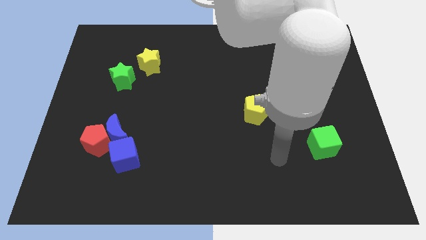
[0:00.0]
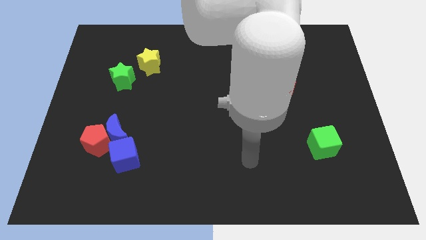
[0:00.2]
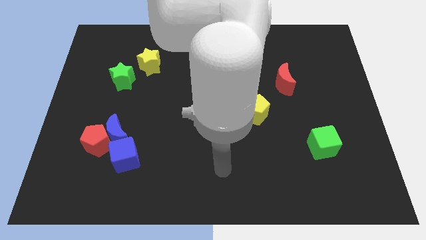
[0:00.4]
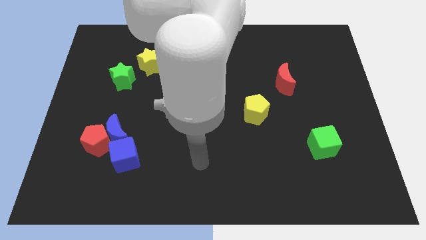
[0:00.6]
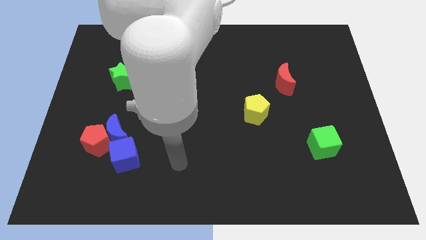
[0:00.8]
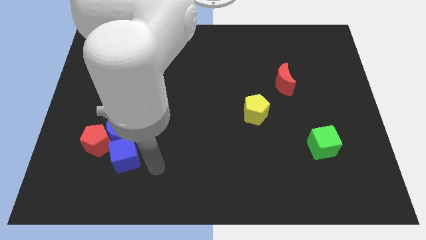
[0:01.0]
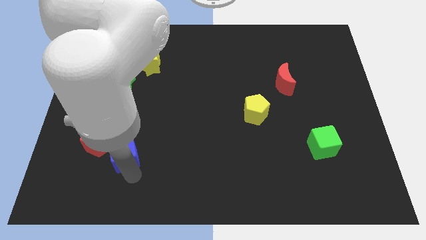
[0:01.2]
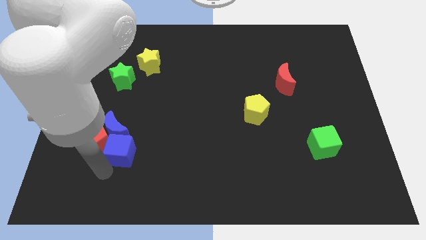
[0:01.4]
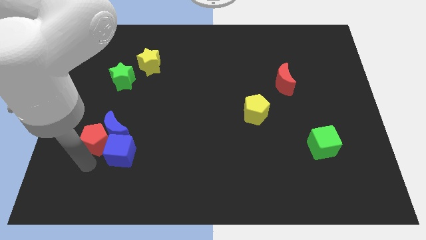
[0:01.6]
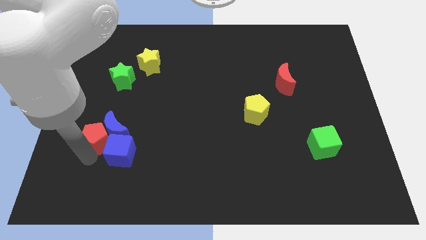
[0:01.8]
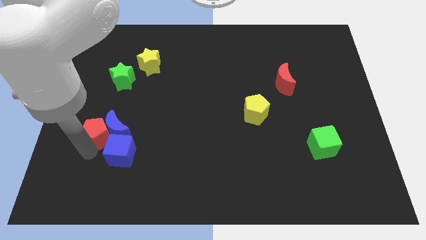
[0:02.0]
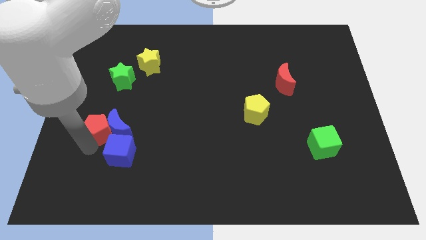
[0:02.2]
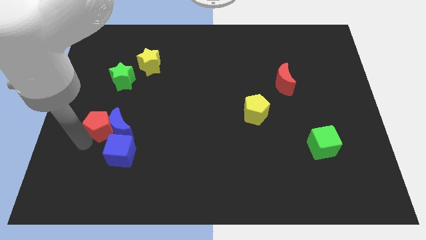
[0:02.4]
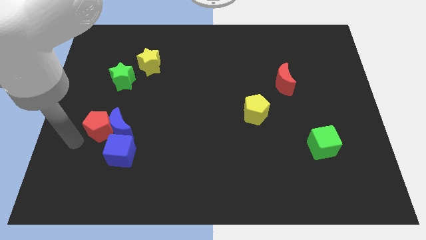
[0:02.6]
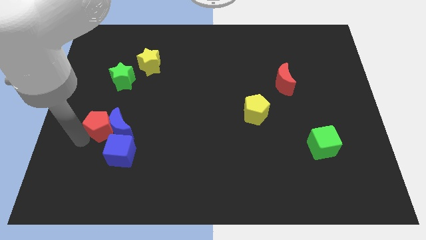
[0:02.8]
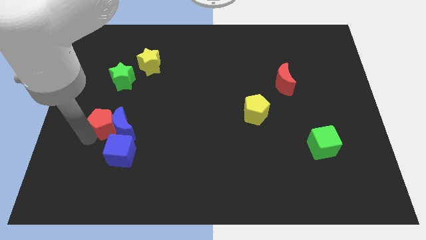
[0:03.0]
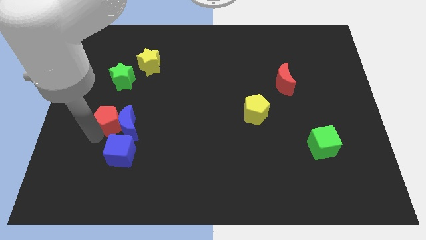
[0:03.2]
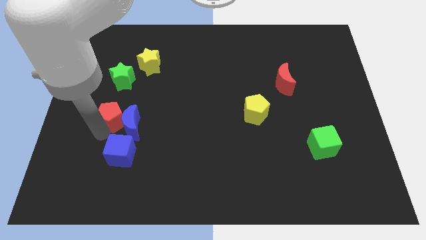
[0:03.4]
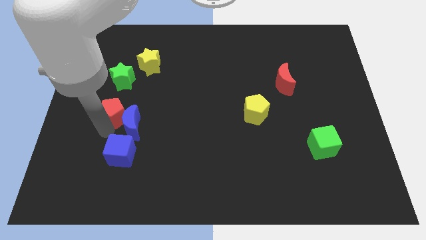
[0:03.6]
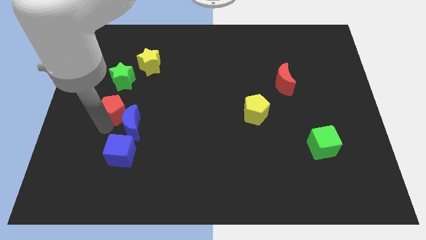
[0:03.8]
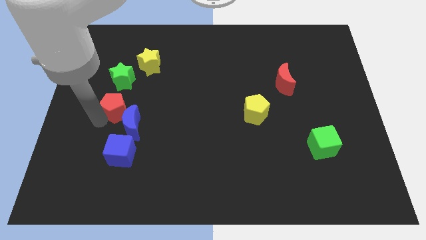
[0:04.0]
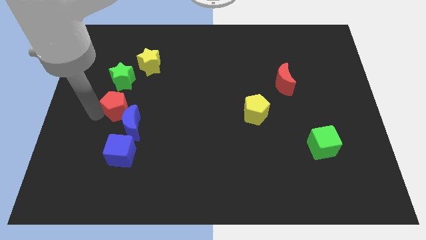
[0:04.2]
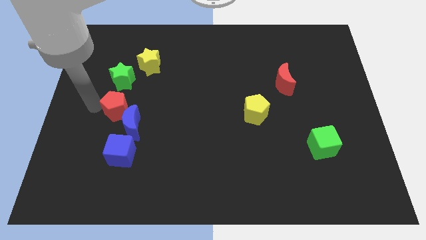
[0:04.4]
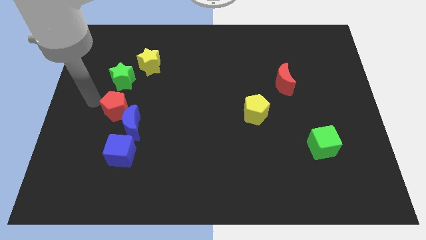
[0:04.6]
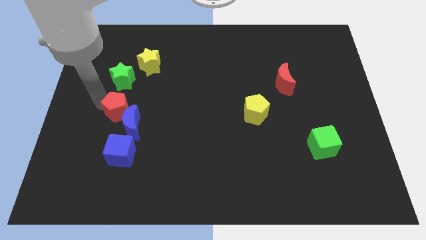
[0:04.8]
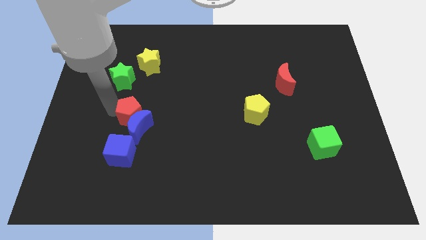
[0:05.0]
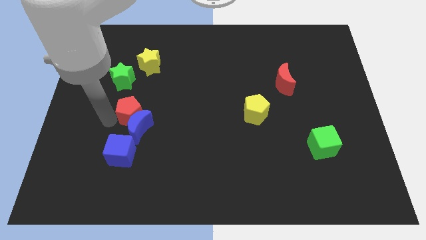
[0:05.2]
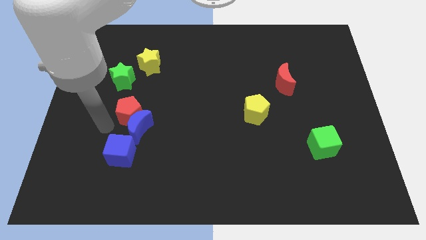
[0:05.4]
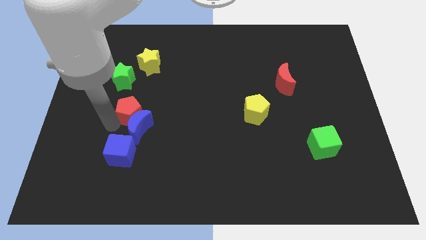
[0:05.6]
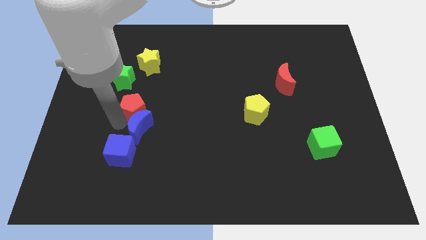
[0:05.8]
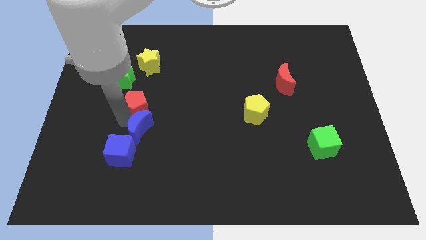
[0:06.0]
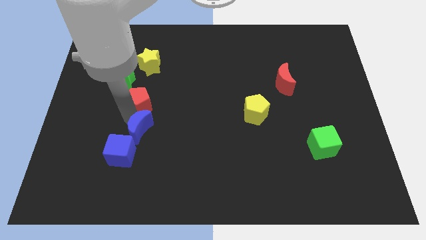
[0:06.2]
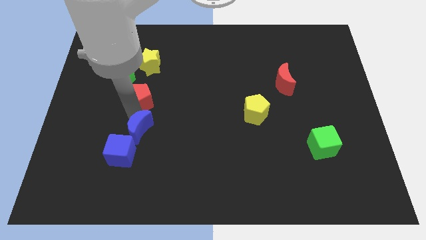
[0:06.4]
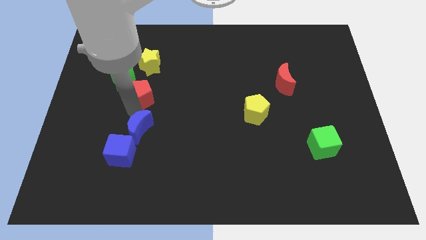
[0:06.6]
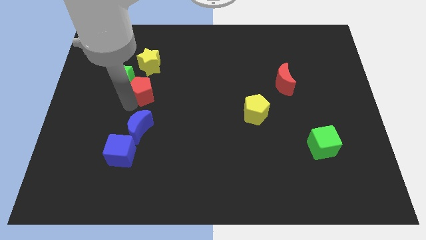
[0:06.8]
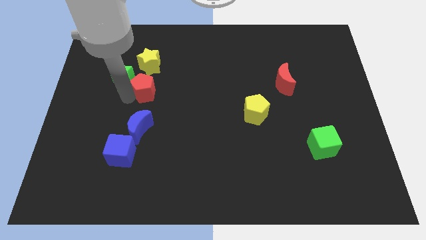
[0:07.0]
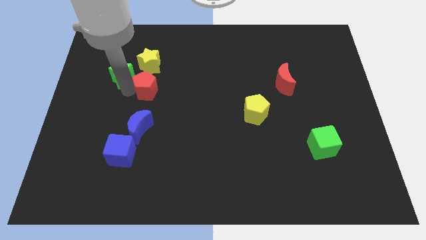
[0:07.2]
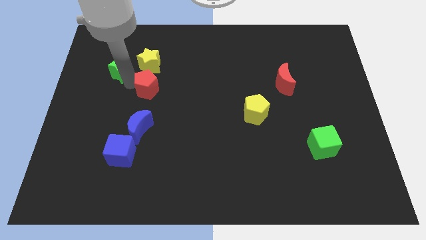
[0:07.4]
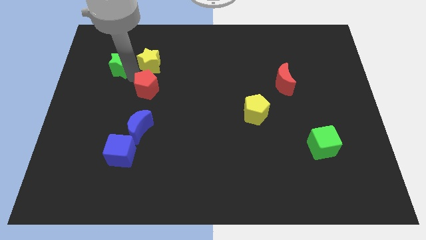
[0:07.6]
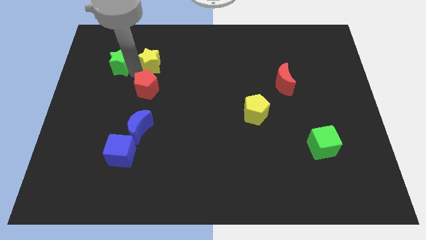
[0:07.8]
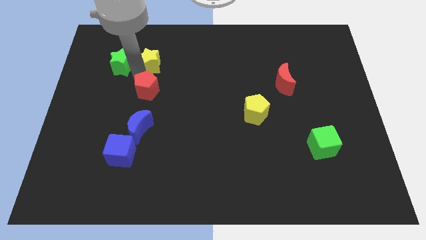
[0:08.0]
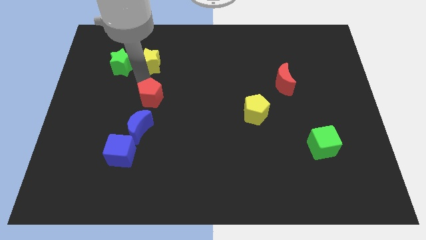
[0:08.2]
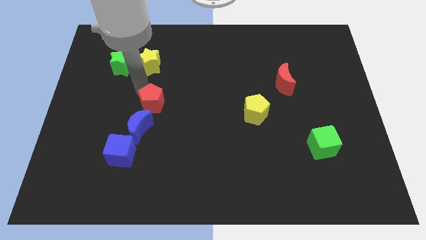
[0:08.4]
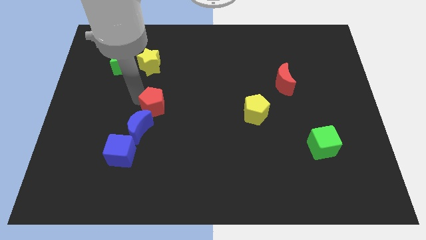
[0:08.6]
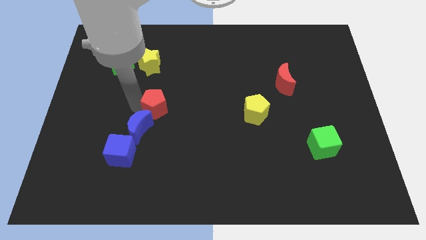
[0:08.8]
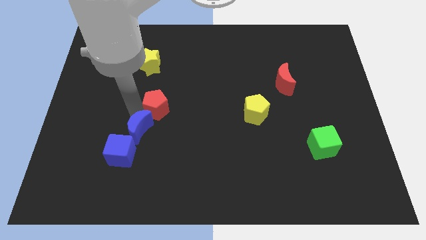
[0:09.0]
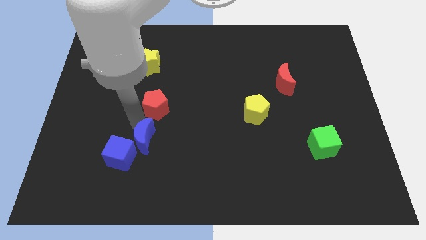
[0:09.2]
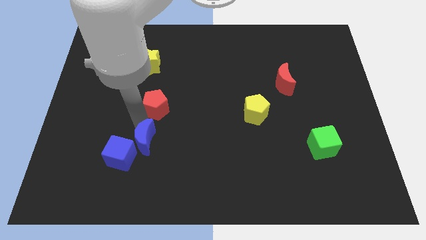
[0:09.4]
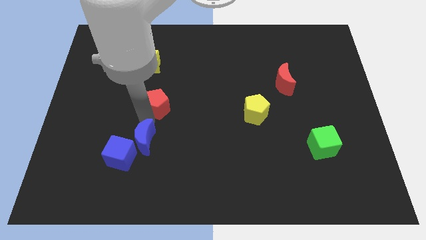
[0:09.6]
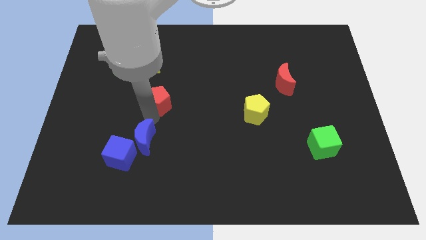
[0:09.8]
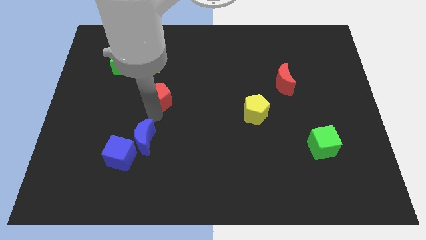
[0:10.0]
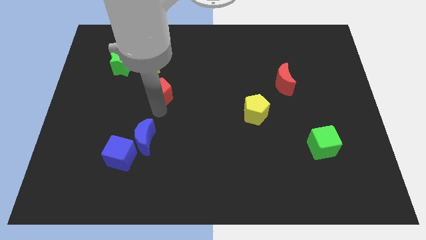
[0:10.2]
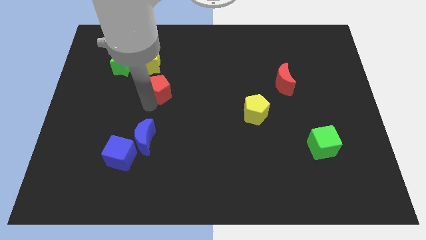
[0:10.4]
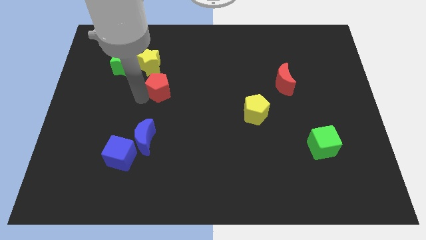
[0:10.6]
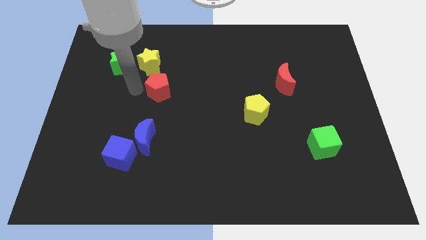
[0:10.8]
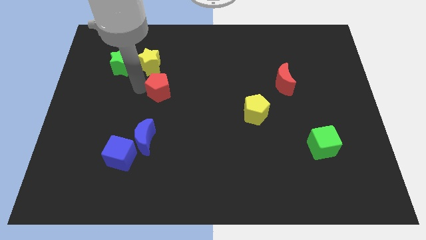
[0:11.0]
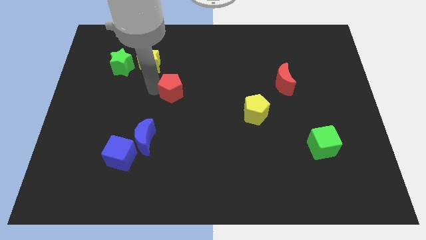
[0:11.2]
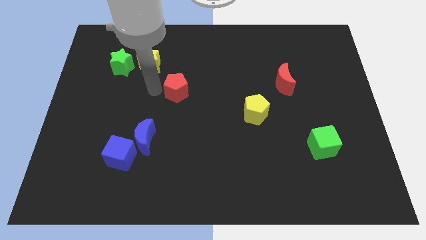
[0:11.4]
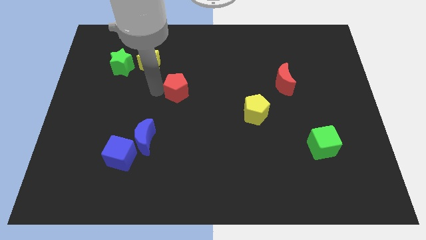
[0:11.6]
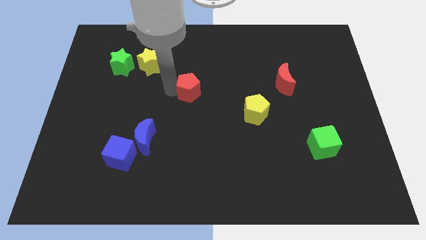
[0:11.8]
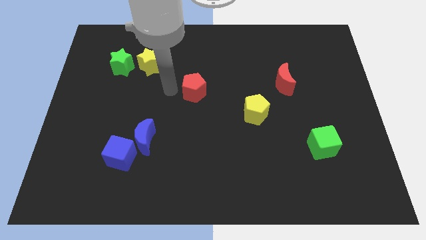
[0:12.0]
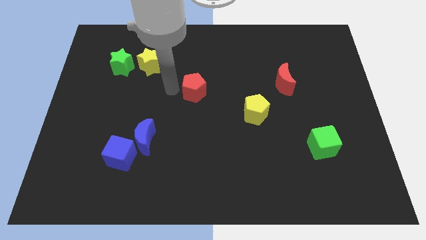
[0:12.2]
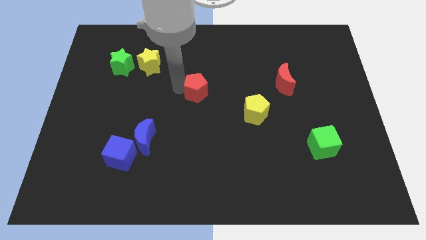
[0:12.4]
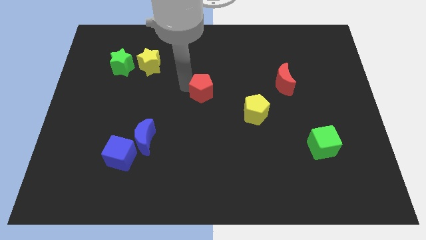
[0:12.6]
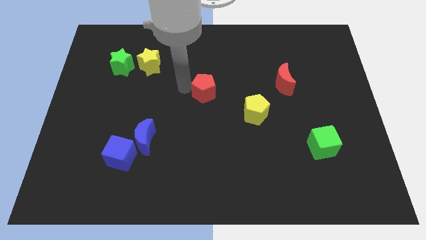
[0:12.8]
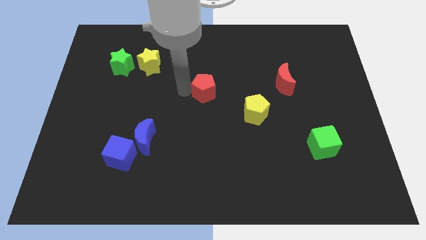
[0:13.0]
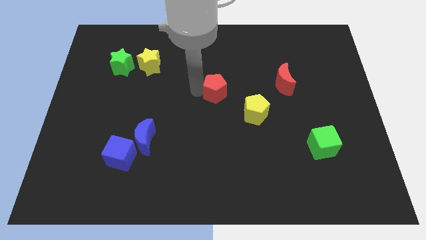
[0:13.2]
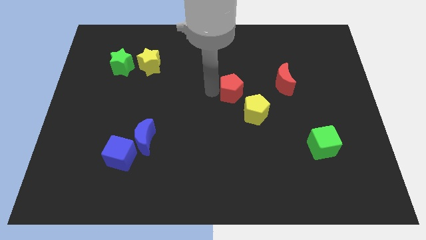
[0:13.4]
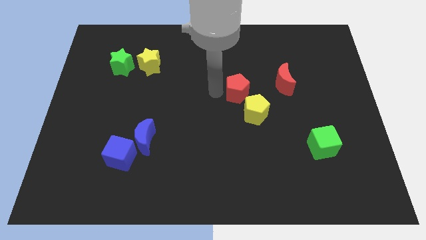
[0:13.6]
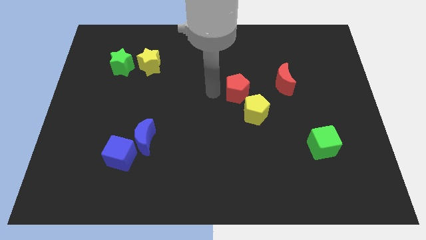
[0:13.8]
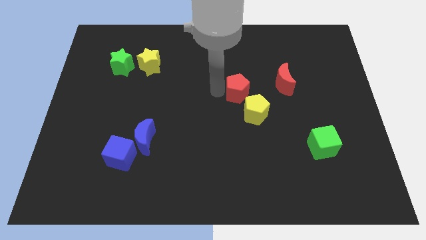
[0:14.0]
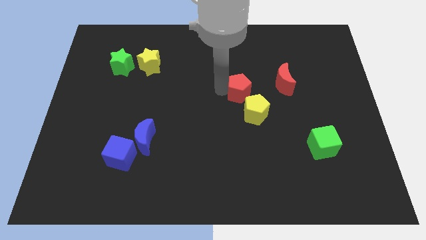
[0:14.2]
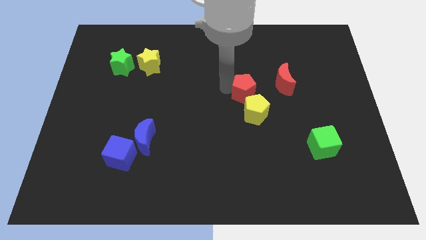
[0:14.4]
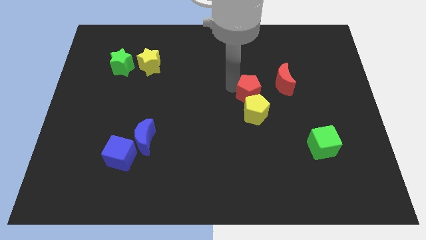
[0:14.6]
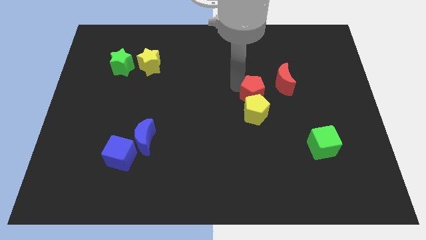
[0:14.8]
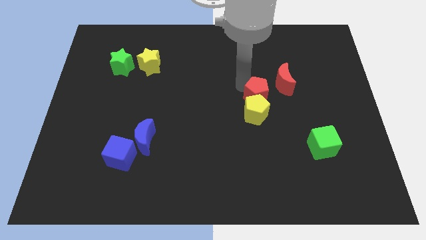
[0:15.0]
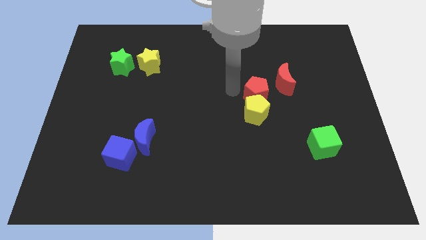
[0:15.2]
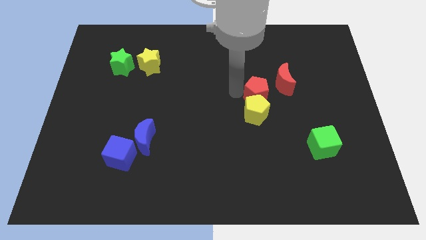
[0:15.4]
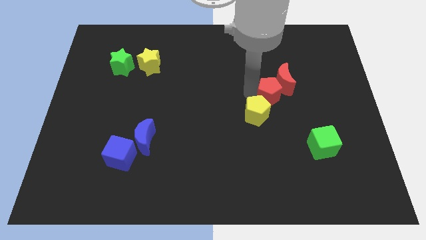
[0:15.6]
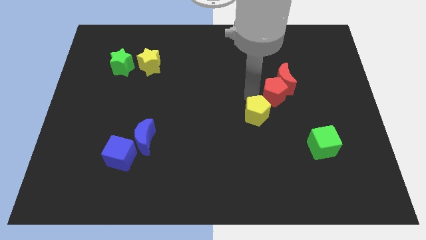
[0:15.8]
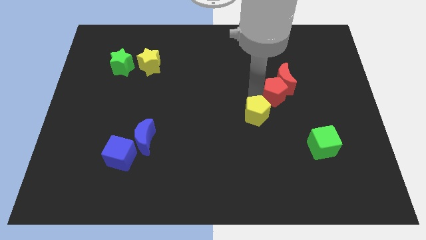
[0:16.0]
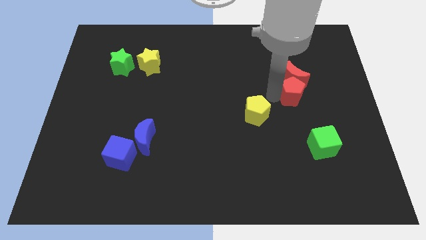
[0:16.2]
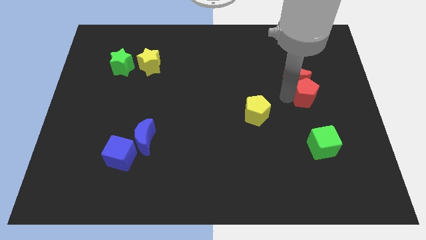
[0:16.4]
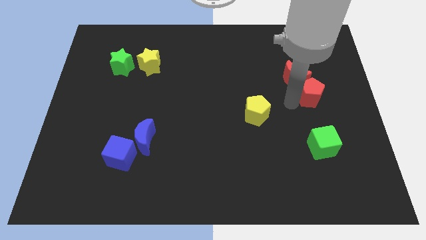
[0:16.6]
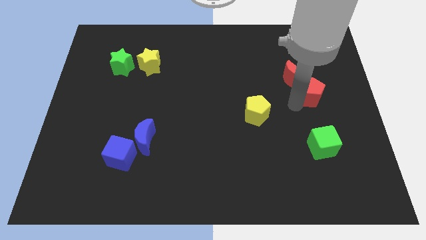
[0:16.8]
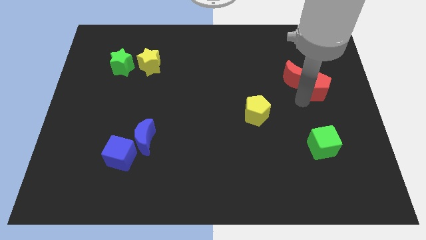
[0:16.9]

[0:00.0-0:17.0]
move the red pentagon to the right of the red moon
